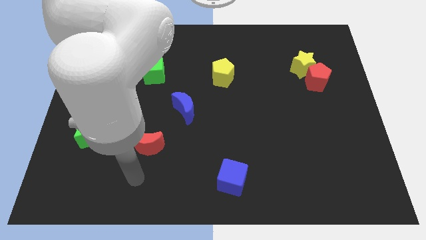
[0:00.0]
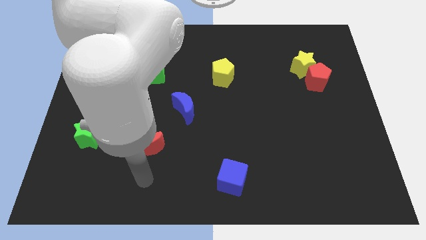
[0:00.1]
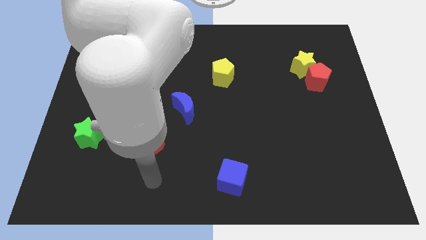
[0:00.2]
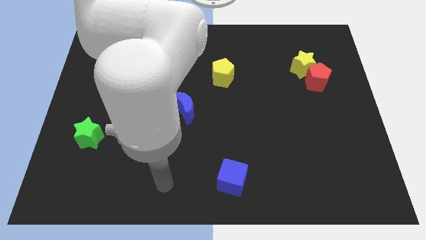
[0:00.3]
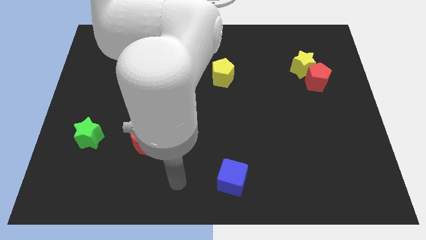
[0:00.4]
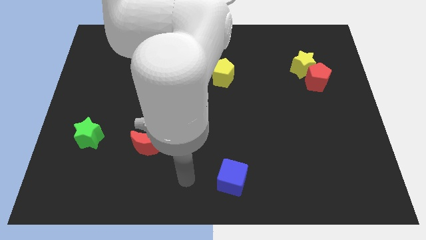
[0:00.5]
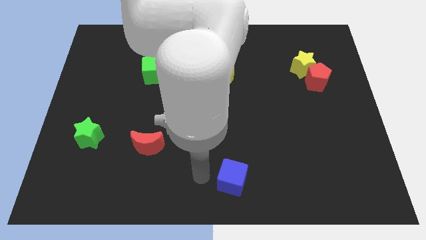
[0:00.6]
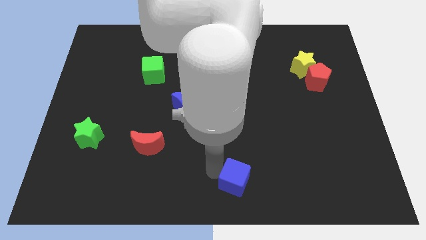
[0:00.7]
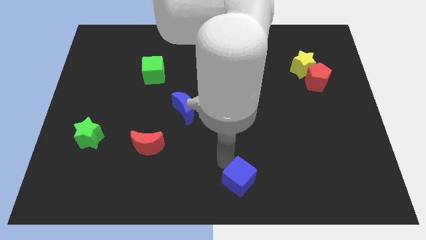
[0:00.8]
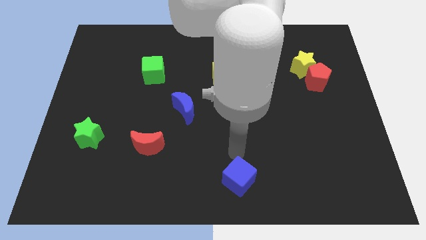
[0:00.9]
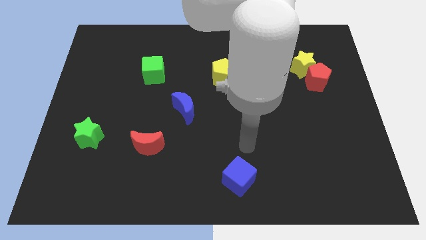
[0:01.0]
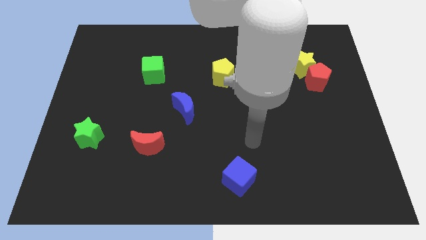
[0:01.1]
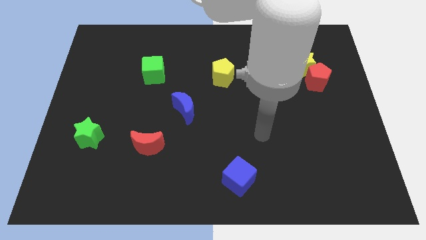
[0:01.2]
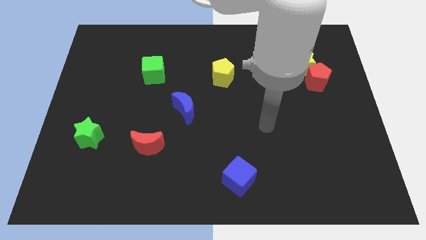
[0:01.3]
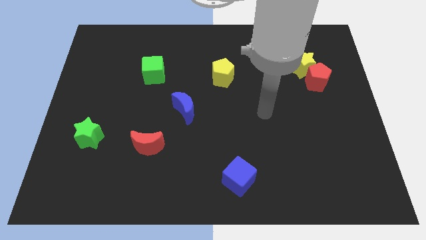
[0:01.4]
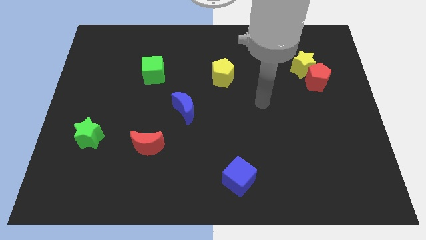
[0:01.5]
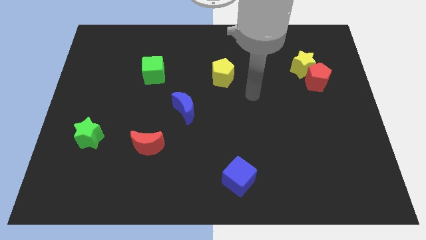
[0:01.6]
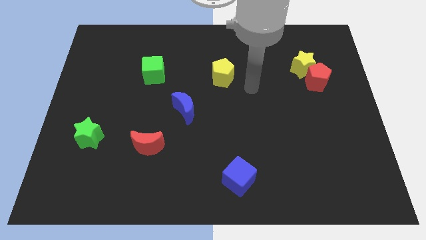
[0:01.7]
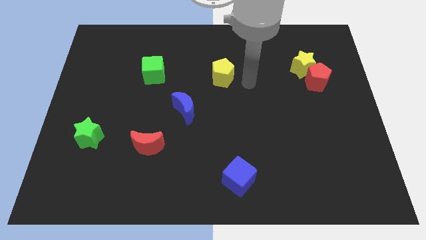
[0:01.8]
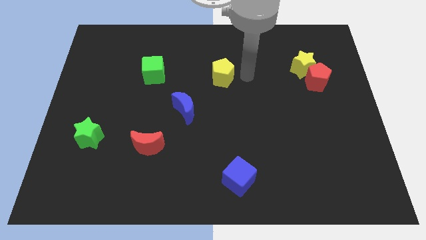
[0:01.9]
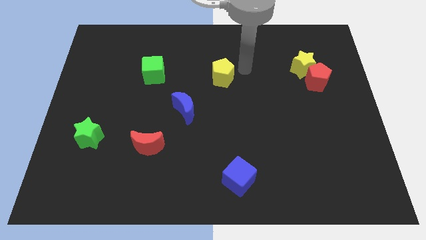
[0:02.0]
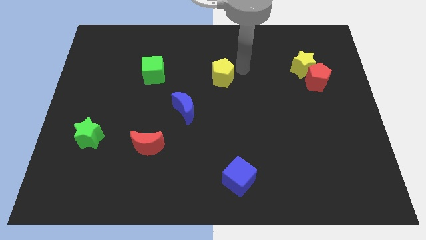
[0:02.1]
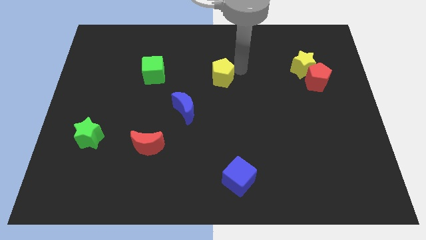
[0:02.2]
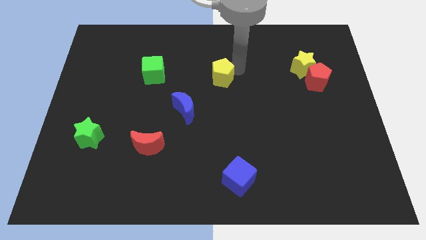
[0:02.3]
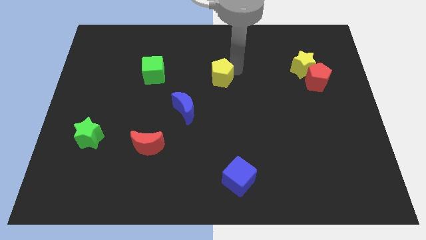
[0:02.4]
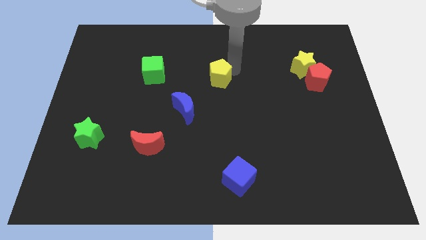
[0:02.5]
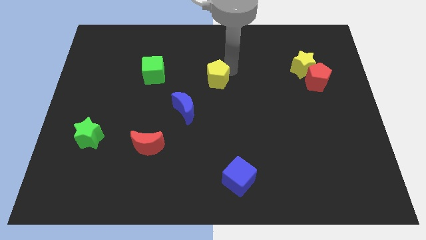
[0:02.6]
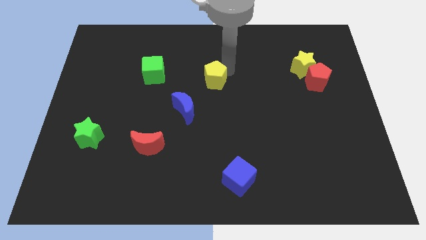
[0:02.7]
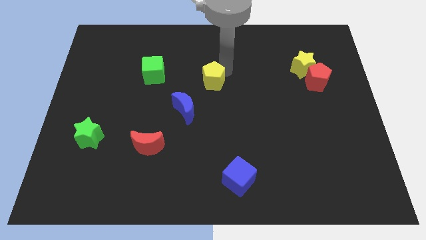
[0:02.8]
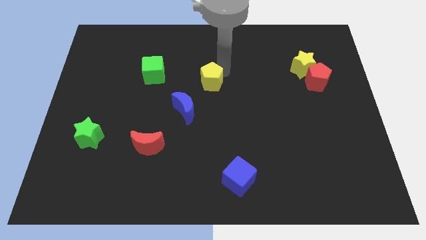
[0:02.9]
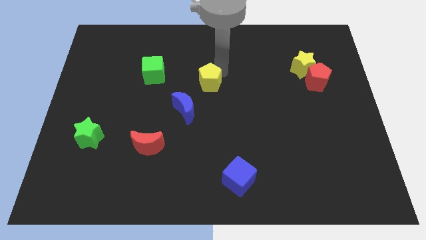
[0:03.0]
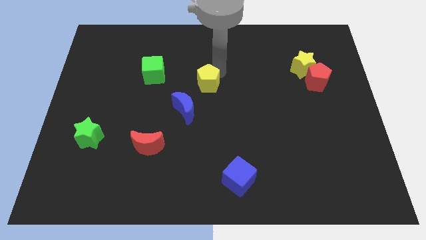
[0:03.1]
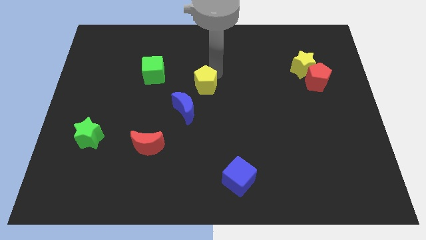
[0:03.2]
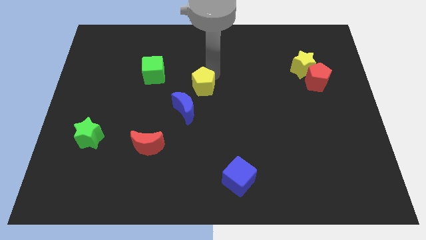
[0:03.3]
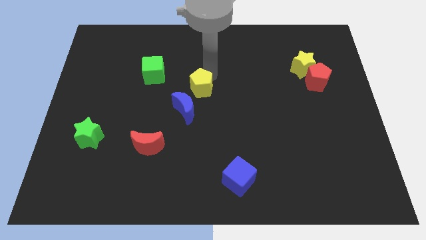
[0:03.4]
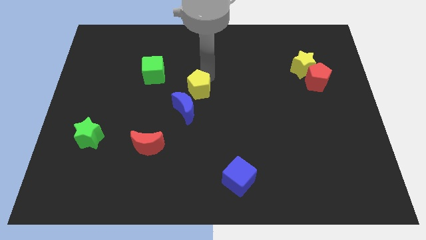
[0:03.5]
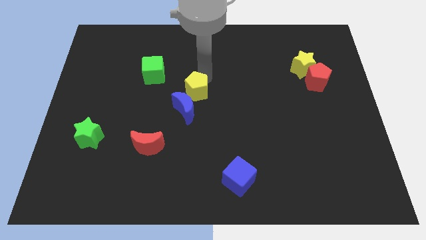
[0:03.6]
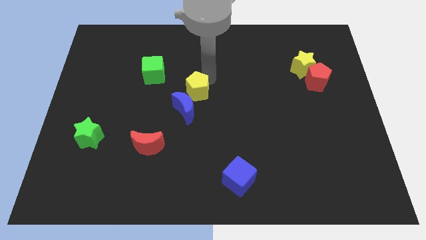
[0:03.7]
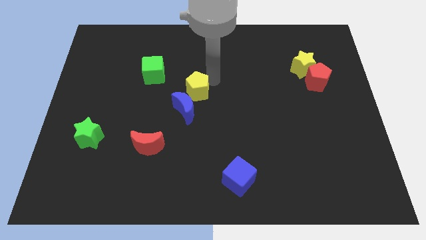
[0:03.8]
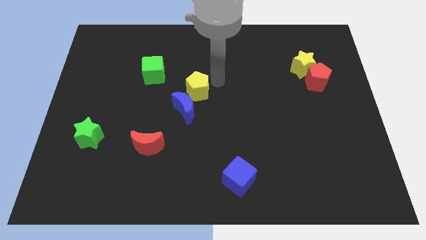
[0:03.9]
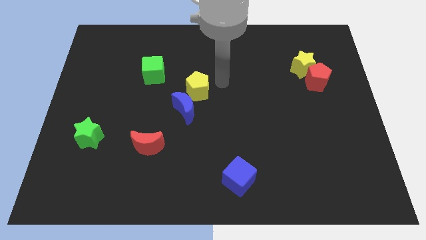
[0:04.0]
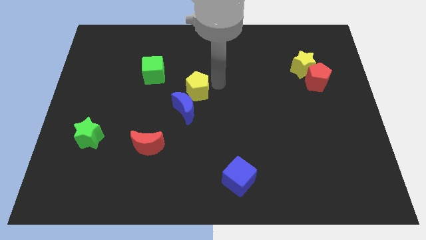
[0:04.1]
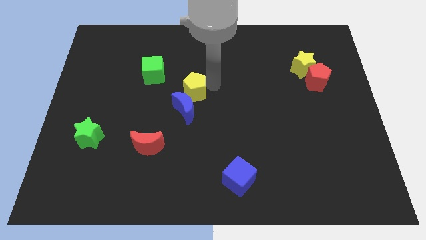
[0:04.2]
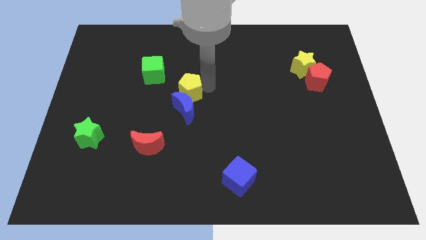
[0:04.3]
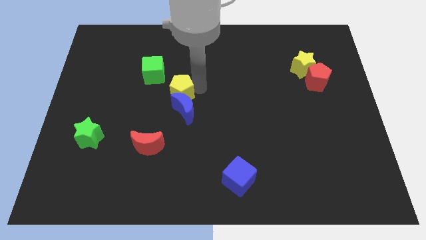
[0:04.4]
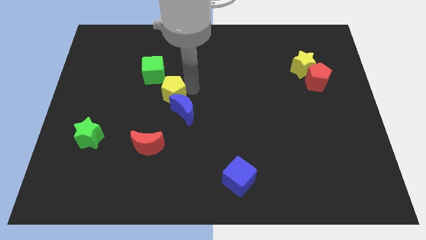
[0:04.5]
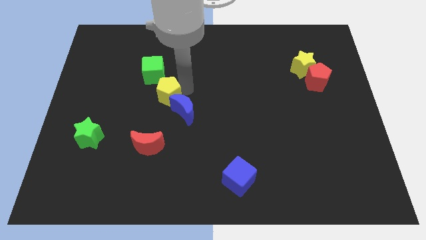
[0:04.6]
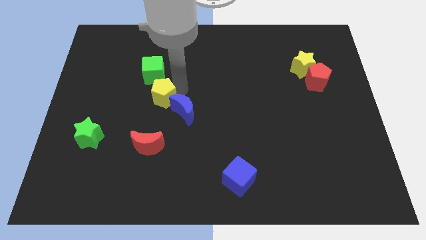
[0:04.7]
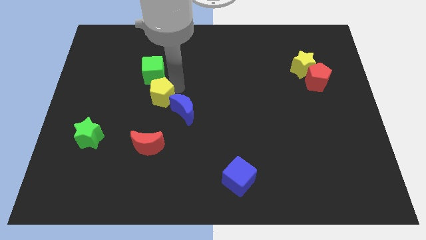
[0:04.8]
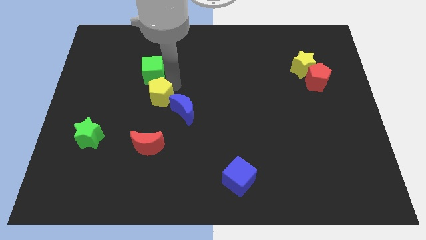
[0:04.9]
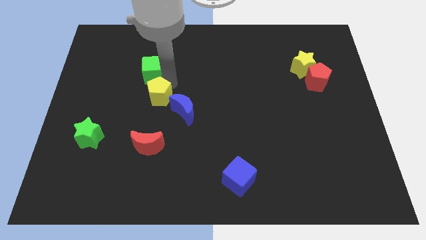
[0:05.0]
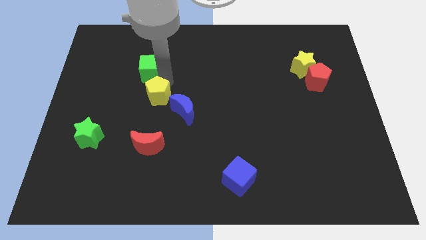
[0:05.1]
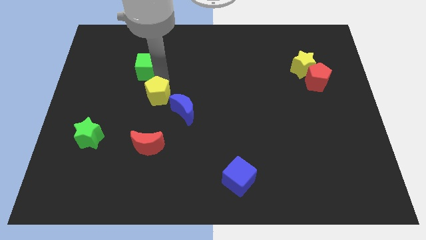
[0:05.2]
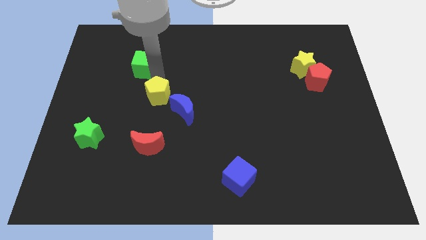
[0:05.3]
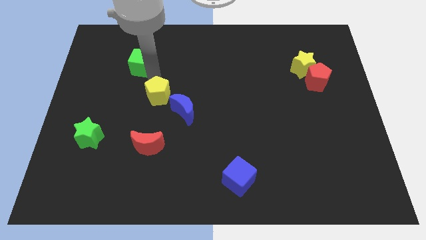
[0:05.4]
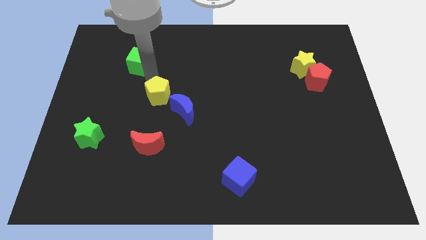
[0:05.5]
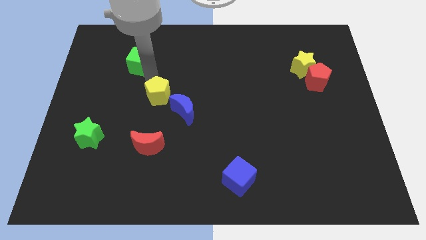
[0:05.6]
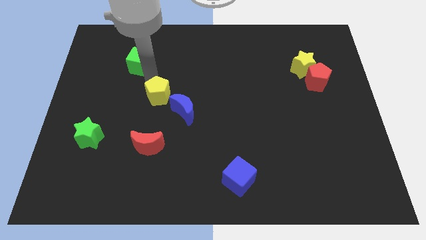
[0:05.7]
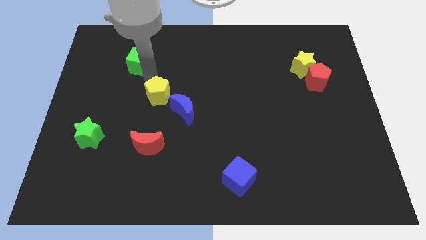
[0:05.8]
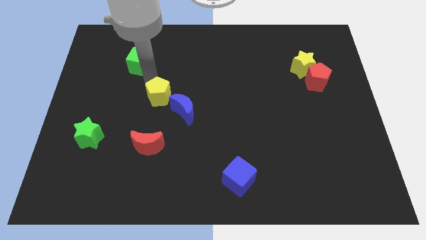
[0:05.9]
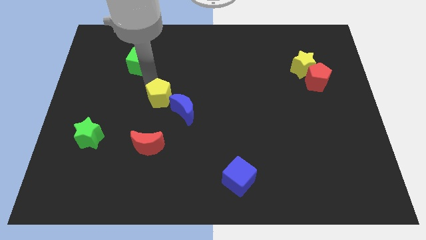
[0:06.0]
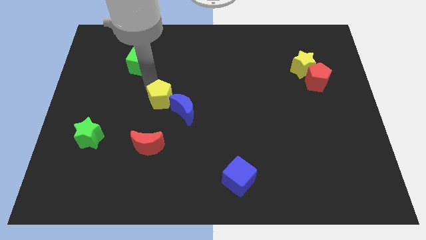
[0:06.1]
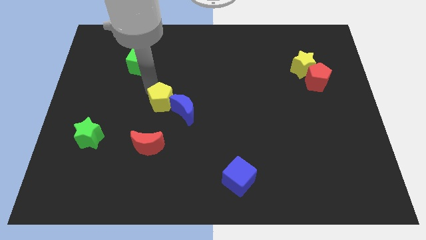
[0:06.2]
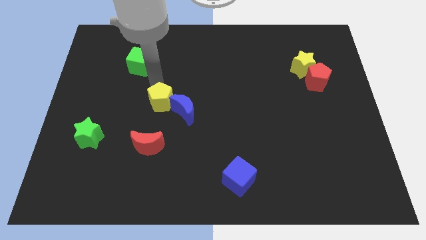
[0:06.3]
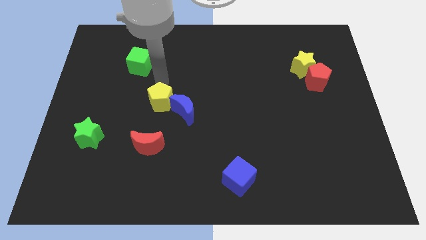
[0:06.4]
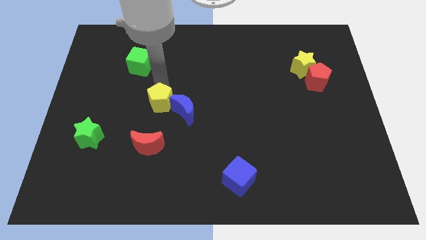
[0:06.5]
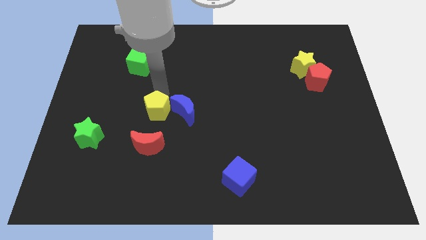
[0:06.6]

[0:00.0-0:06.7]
push the yellow pentagon to the bottom left of the blue moon

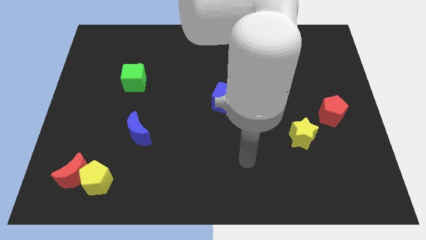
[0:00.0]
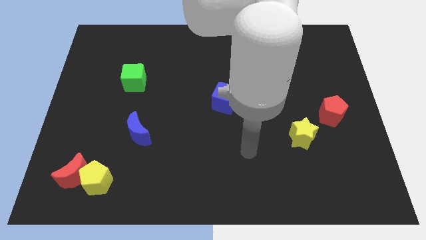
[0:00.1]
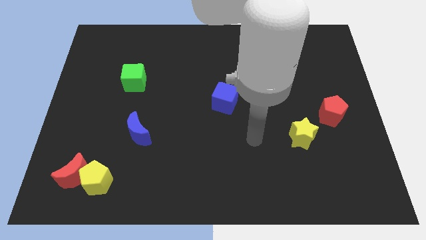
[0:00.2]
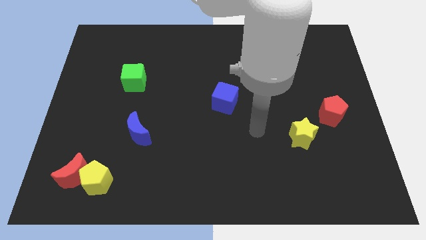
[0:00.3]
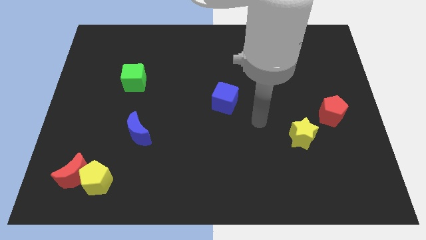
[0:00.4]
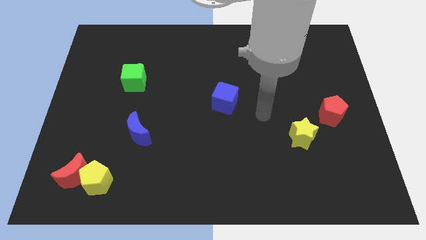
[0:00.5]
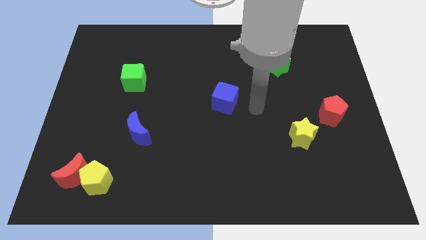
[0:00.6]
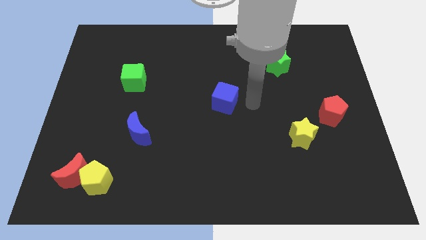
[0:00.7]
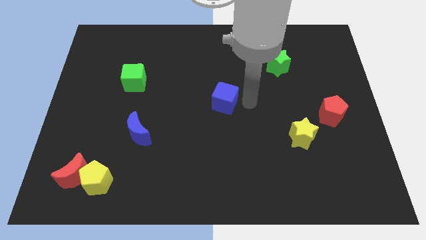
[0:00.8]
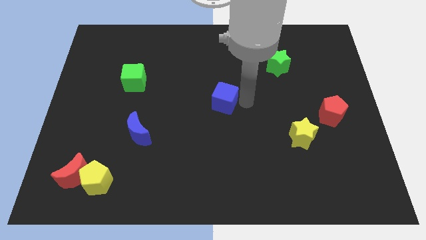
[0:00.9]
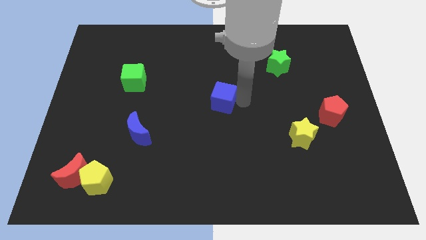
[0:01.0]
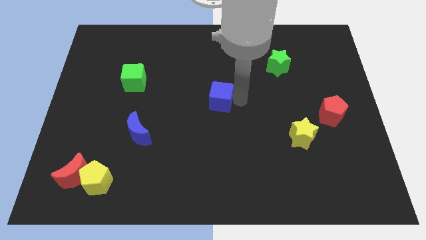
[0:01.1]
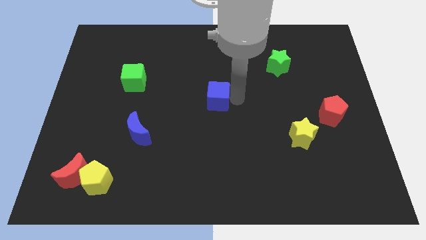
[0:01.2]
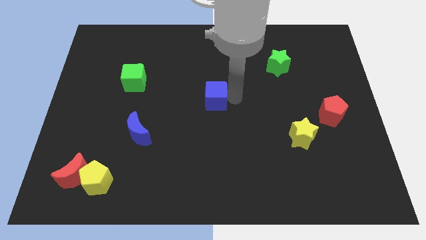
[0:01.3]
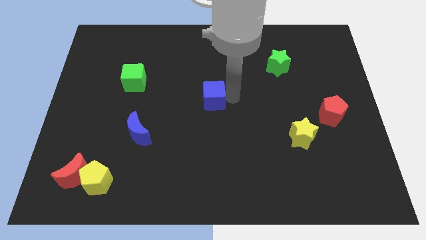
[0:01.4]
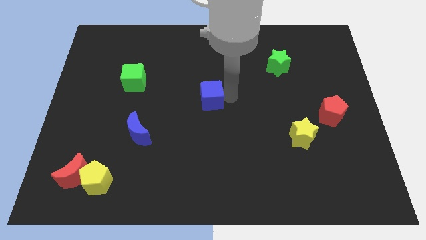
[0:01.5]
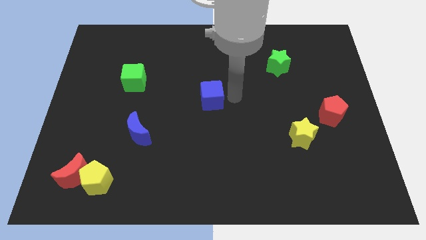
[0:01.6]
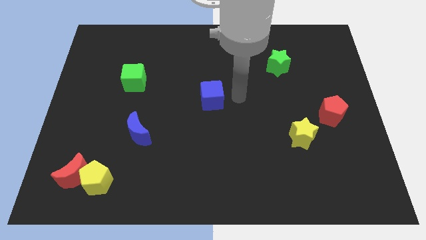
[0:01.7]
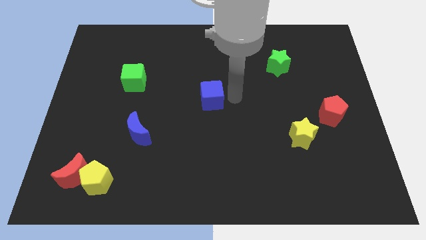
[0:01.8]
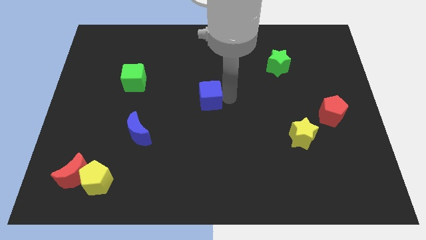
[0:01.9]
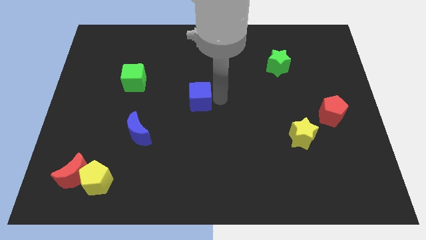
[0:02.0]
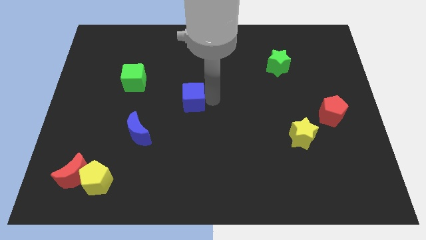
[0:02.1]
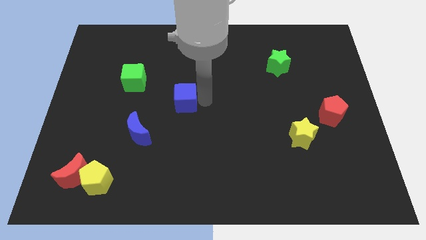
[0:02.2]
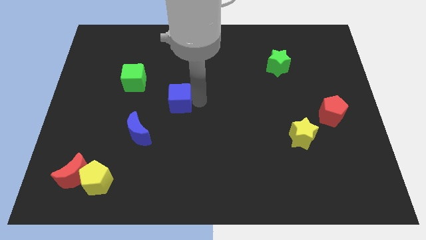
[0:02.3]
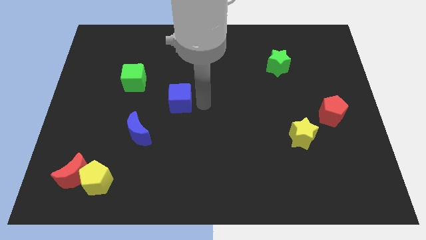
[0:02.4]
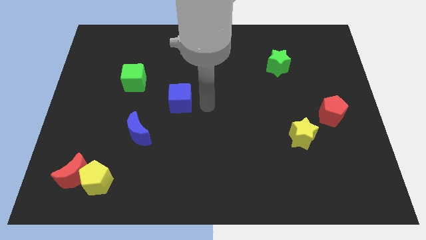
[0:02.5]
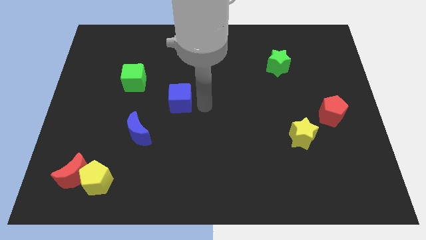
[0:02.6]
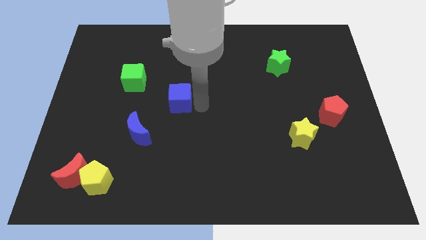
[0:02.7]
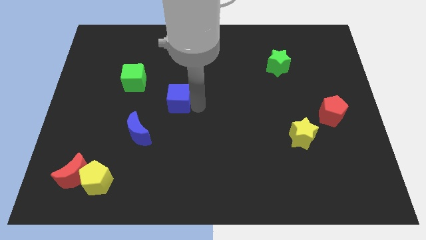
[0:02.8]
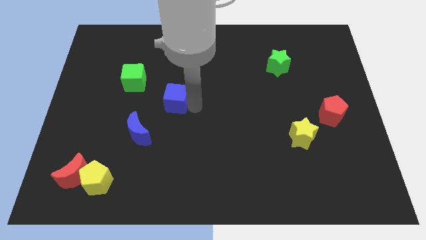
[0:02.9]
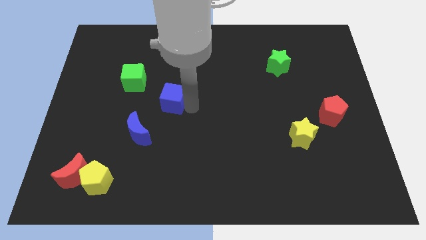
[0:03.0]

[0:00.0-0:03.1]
slide the blue cube to the bottom right of the green cube
